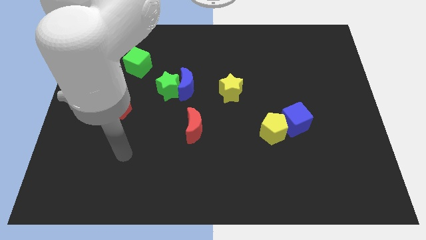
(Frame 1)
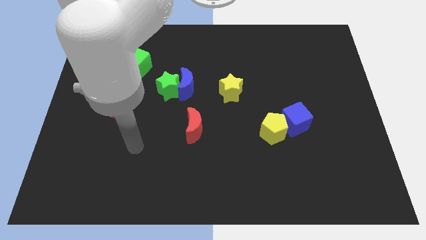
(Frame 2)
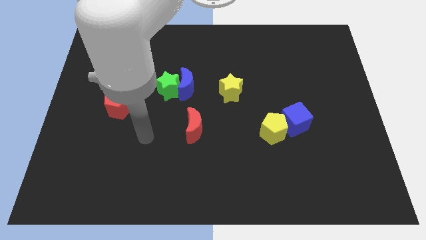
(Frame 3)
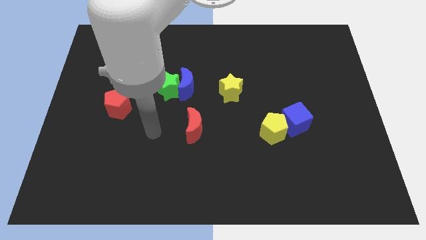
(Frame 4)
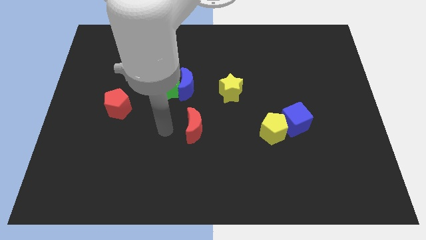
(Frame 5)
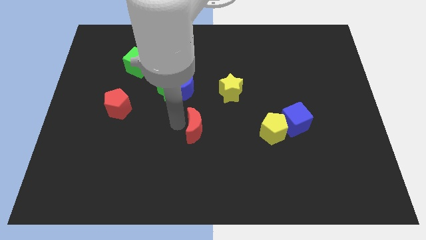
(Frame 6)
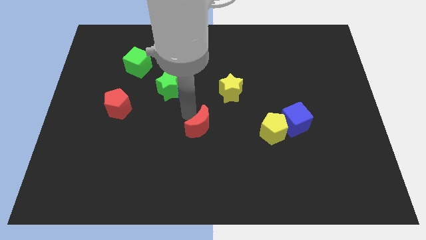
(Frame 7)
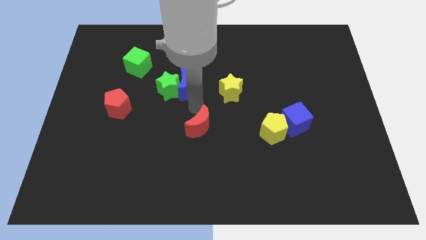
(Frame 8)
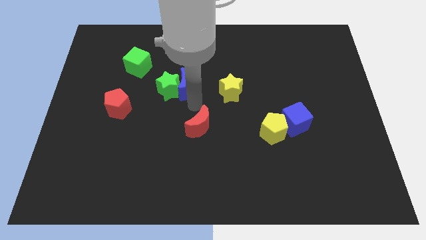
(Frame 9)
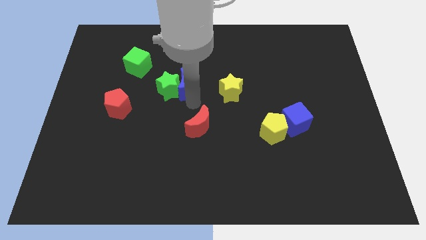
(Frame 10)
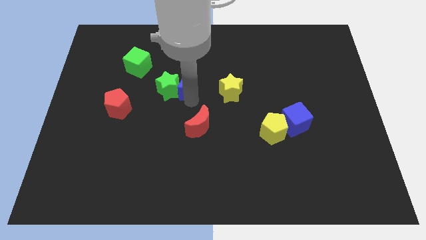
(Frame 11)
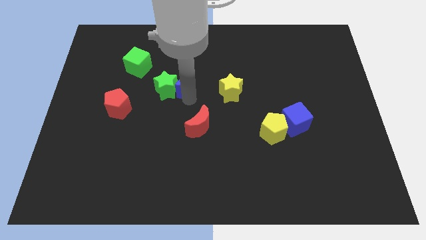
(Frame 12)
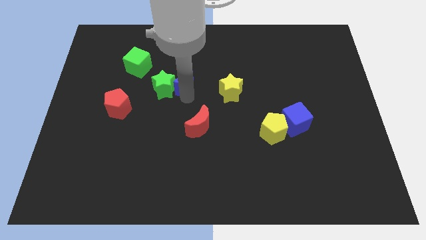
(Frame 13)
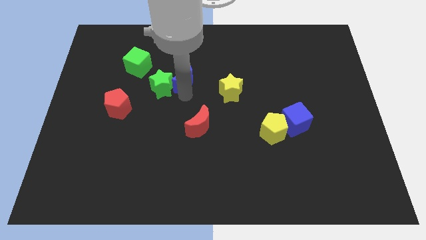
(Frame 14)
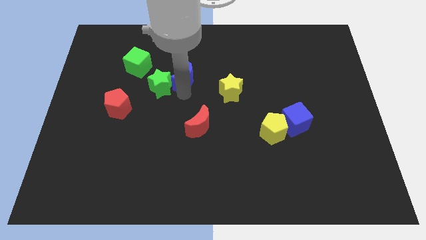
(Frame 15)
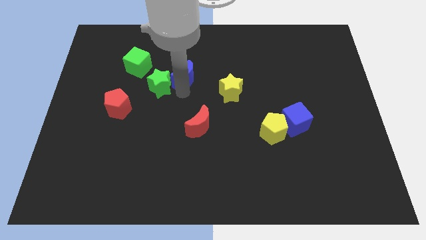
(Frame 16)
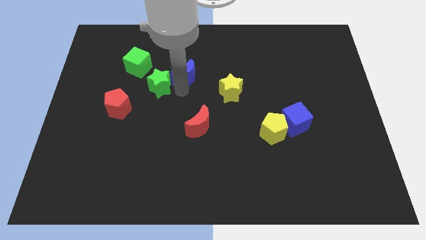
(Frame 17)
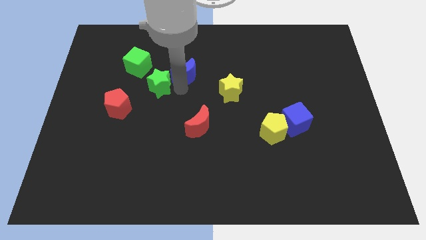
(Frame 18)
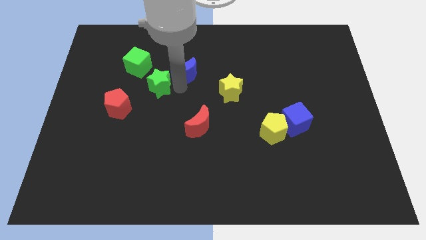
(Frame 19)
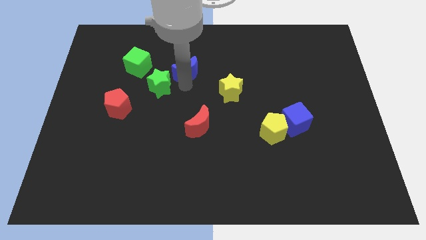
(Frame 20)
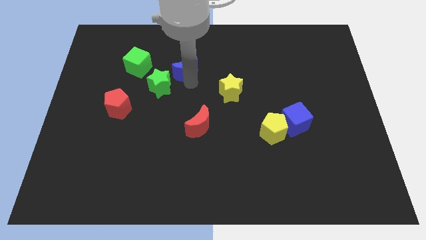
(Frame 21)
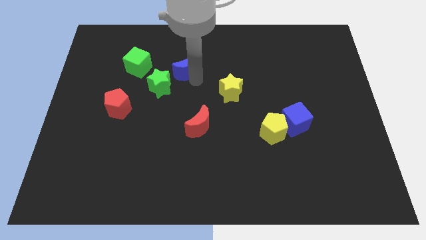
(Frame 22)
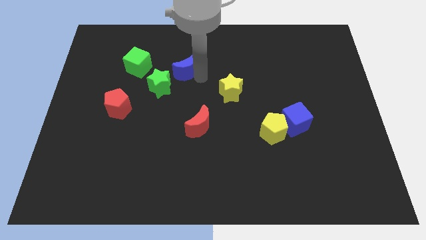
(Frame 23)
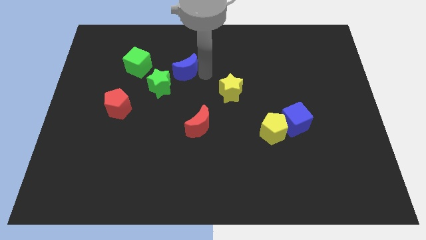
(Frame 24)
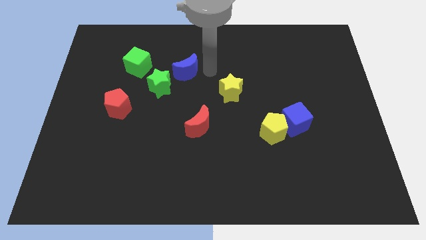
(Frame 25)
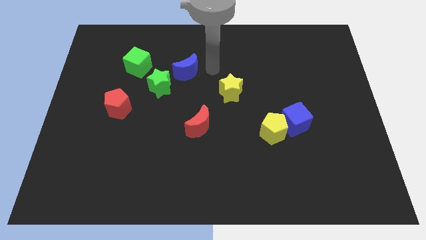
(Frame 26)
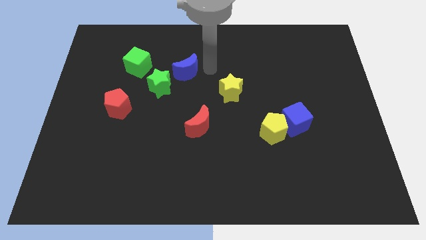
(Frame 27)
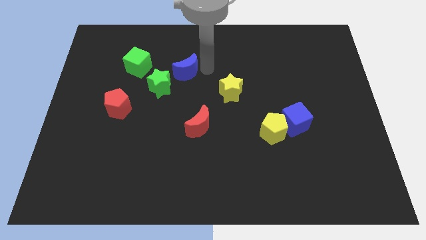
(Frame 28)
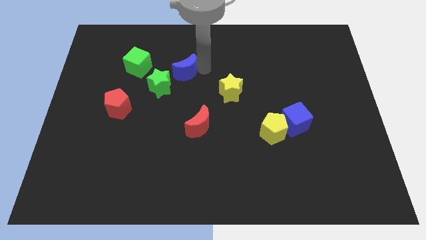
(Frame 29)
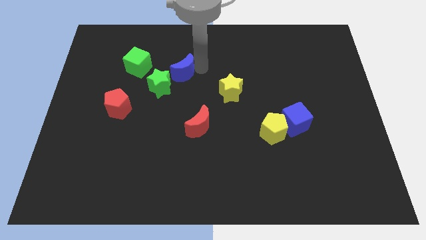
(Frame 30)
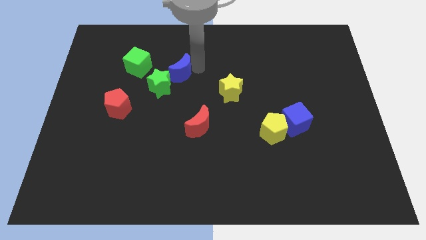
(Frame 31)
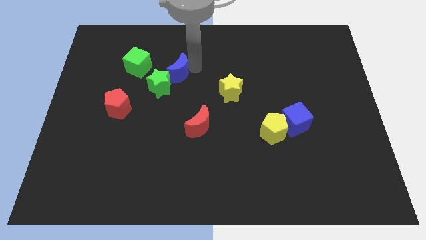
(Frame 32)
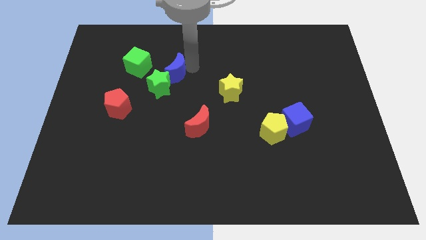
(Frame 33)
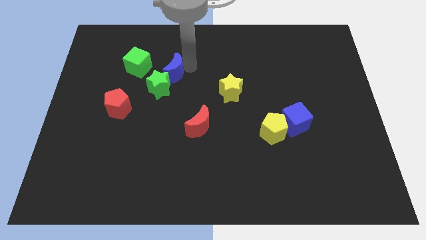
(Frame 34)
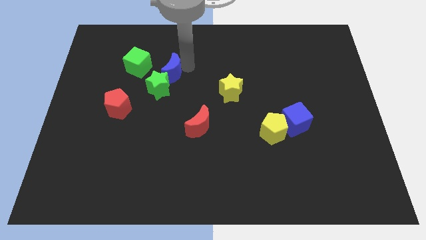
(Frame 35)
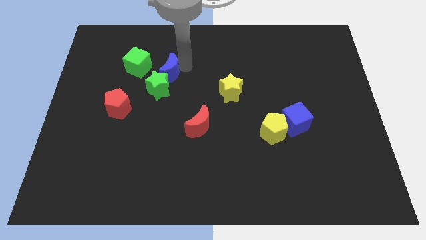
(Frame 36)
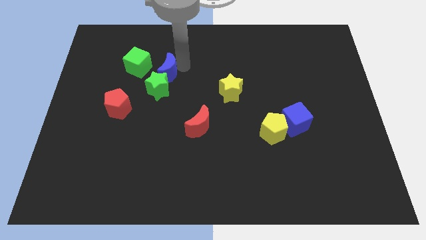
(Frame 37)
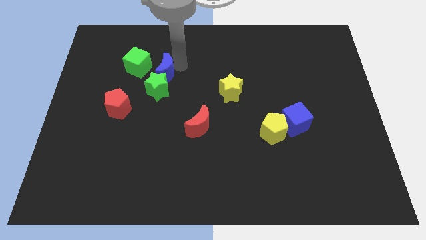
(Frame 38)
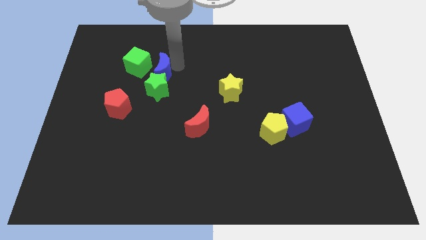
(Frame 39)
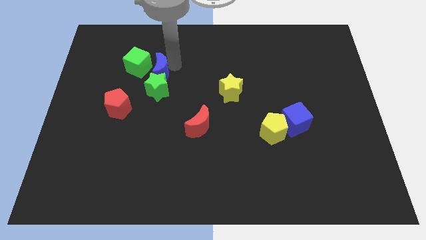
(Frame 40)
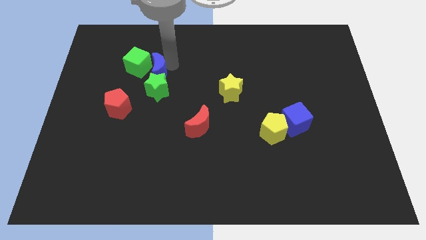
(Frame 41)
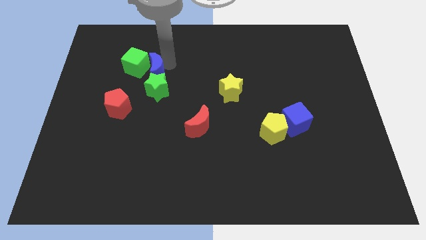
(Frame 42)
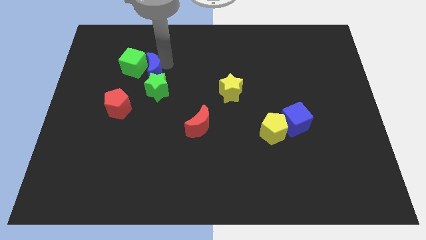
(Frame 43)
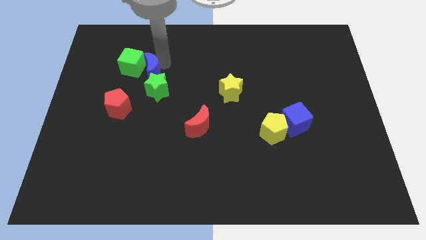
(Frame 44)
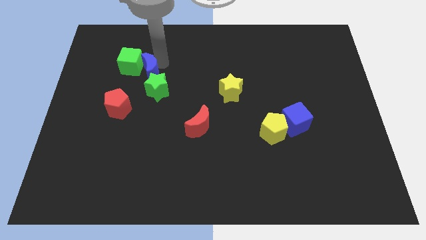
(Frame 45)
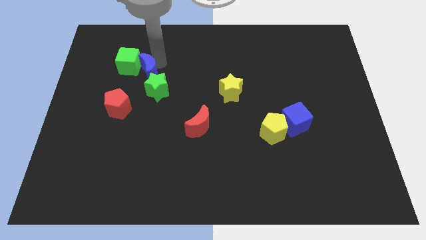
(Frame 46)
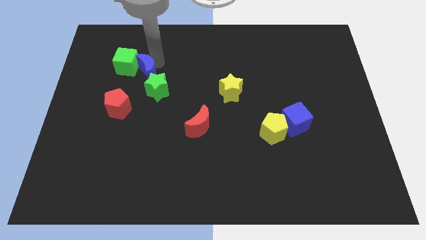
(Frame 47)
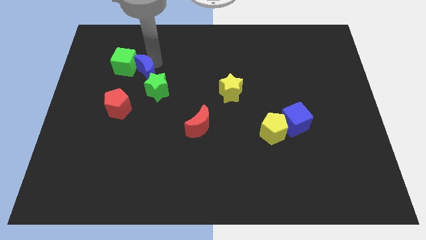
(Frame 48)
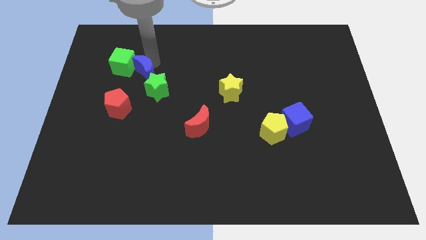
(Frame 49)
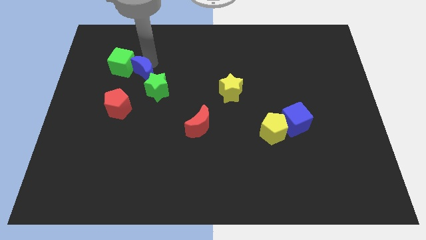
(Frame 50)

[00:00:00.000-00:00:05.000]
put the blue moon to the top of the red pentagon

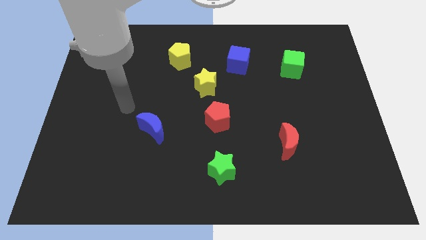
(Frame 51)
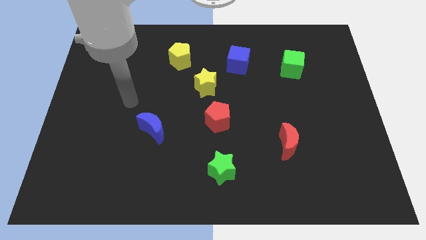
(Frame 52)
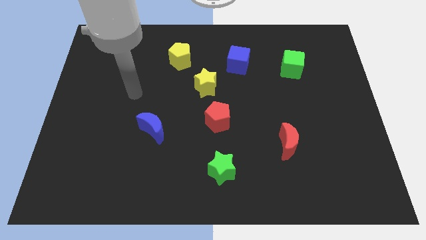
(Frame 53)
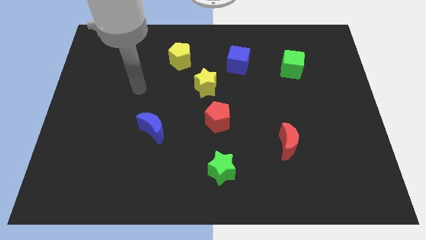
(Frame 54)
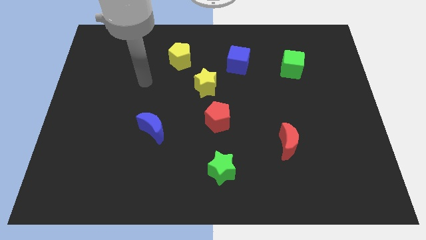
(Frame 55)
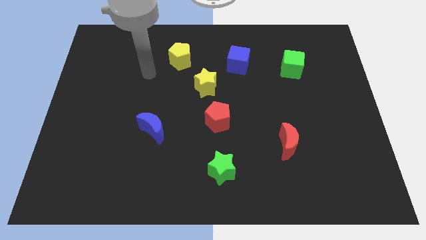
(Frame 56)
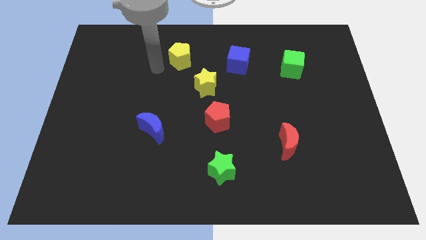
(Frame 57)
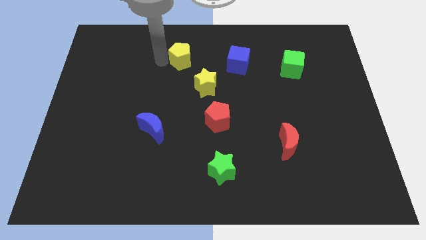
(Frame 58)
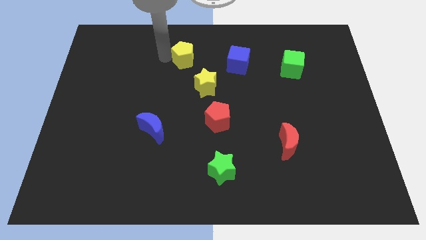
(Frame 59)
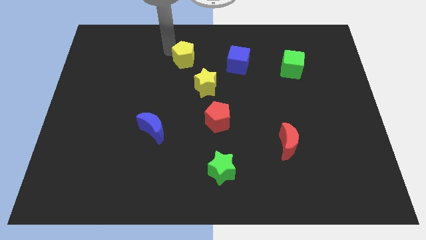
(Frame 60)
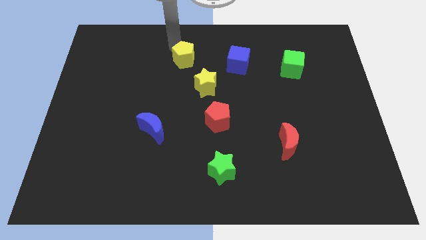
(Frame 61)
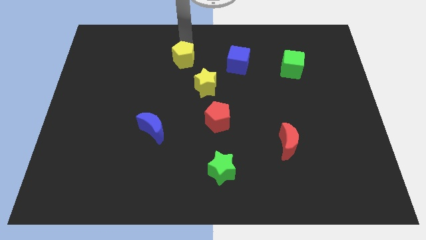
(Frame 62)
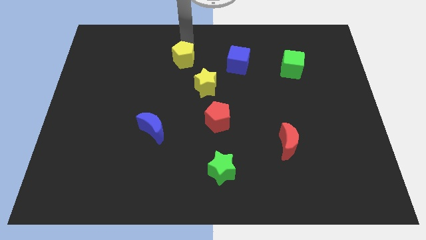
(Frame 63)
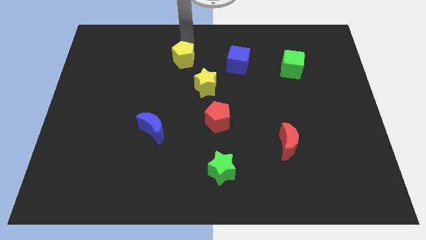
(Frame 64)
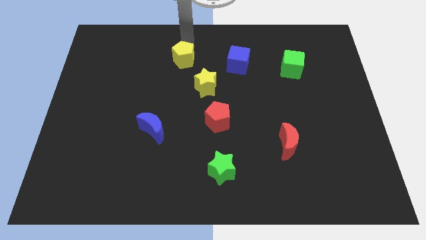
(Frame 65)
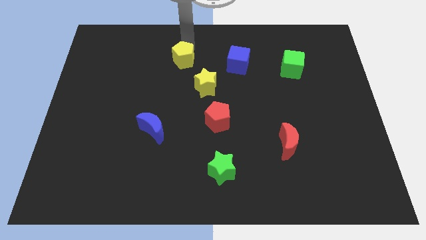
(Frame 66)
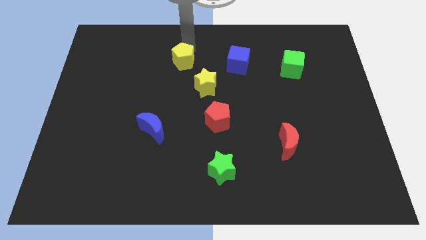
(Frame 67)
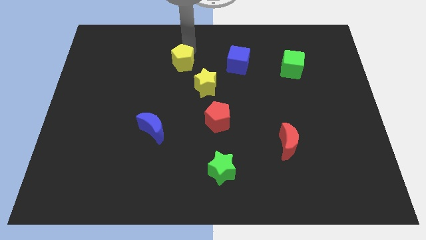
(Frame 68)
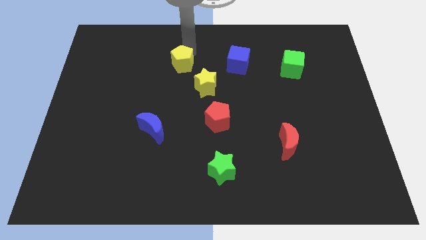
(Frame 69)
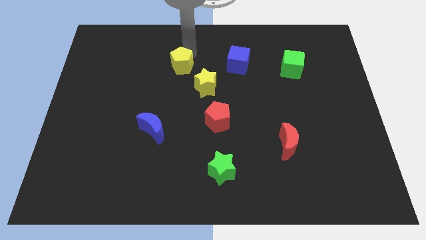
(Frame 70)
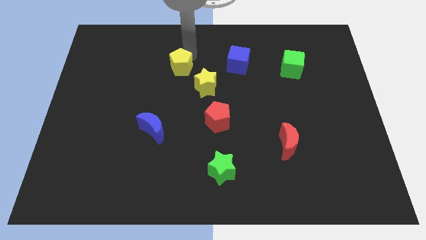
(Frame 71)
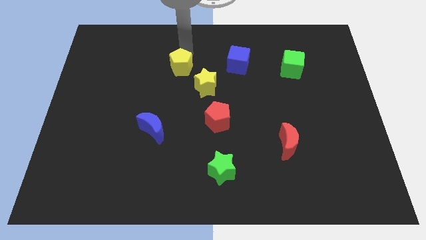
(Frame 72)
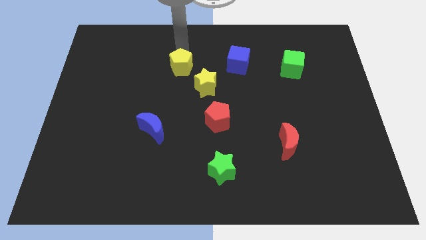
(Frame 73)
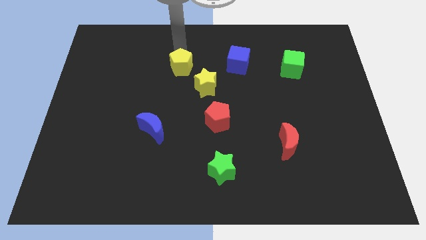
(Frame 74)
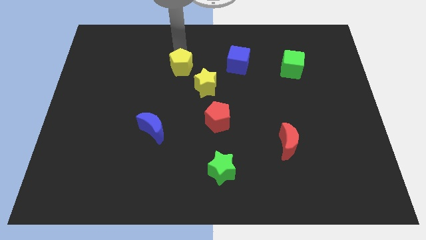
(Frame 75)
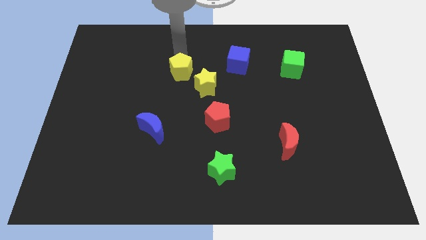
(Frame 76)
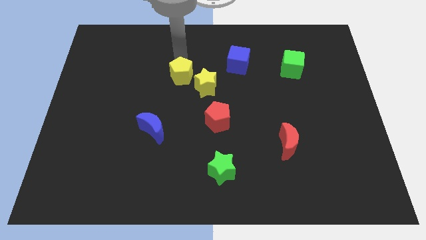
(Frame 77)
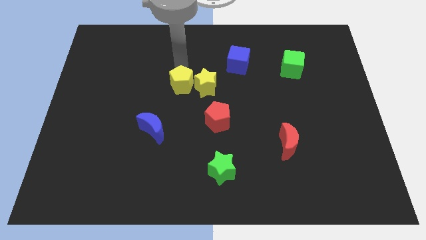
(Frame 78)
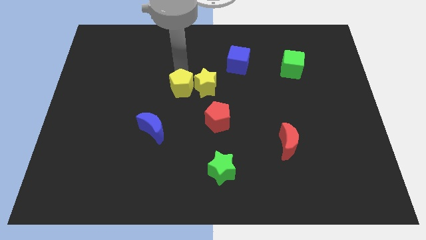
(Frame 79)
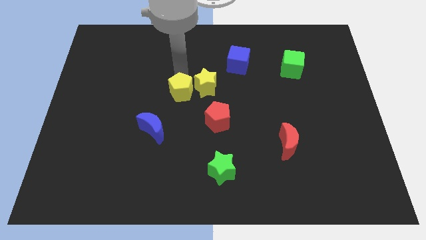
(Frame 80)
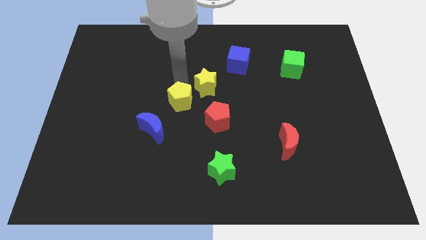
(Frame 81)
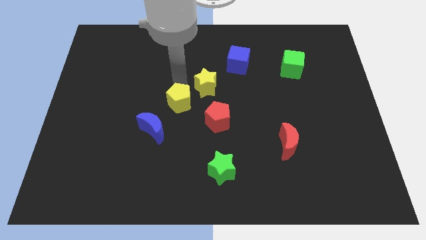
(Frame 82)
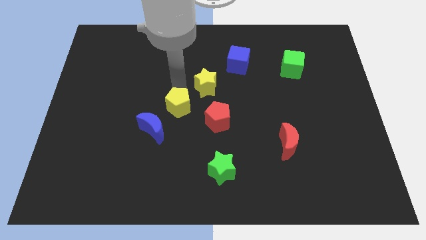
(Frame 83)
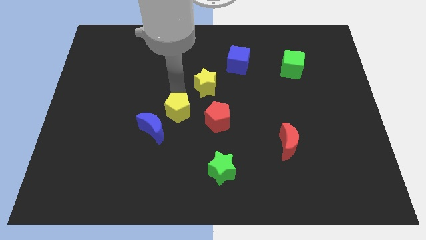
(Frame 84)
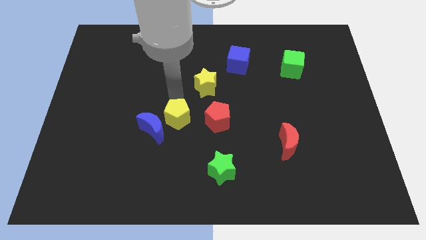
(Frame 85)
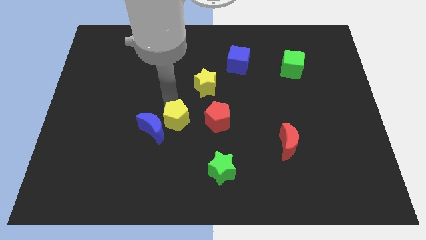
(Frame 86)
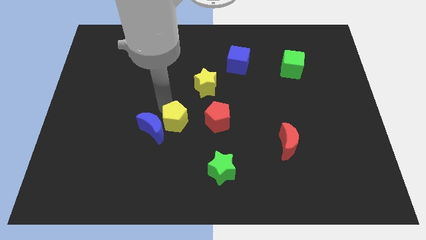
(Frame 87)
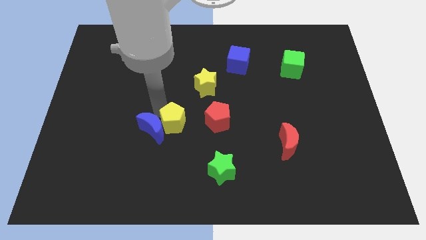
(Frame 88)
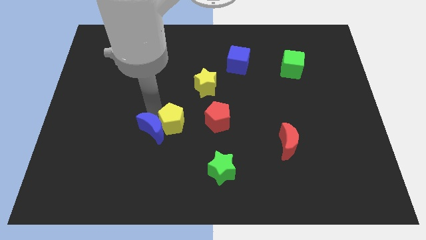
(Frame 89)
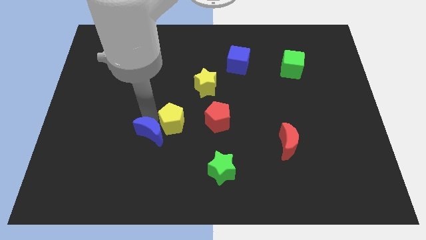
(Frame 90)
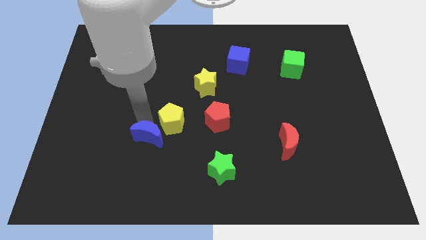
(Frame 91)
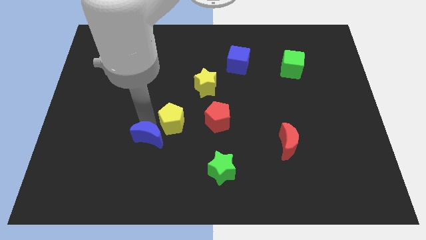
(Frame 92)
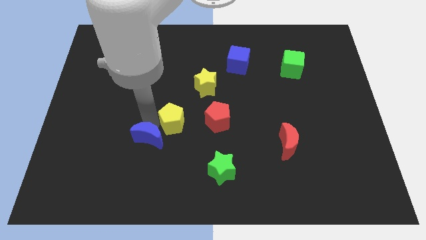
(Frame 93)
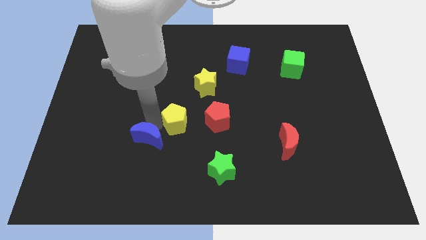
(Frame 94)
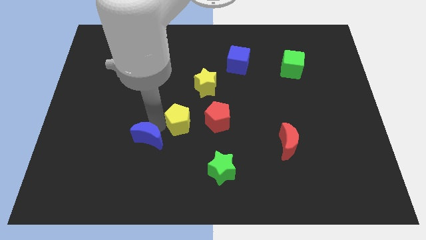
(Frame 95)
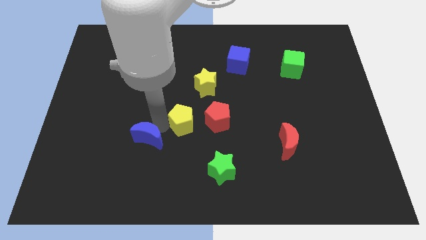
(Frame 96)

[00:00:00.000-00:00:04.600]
push the yellow pentagon below the yellow star
